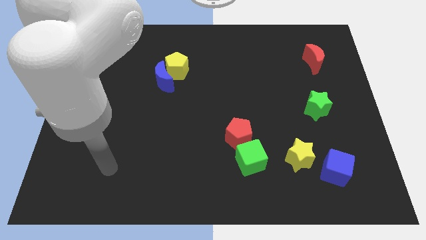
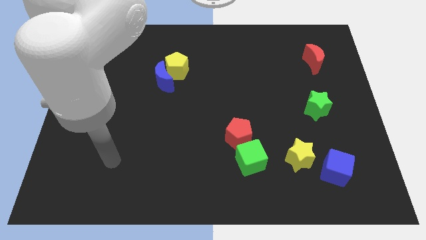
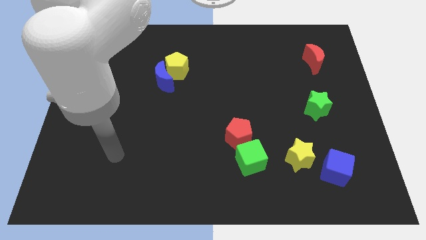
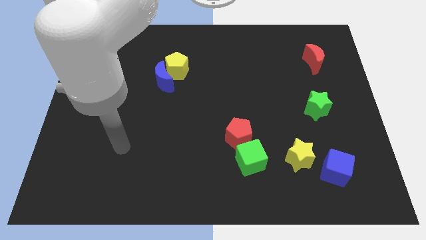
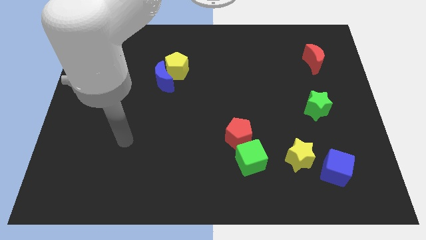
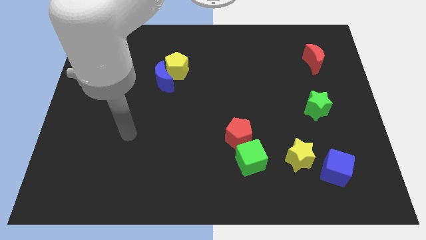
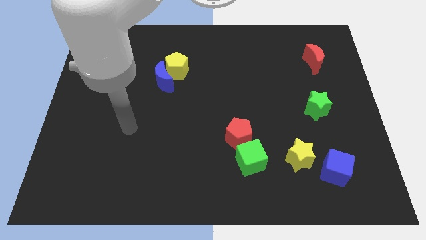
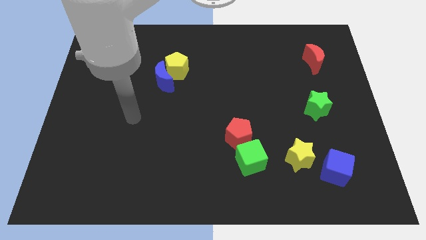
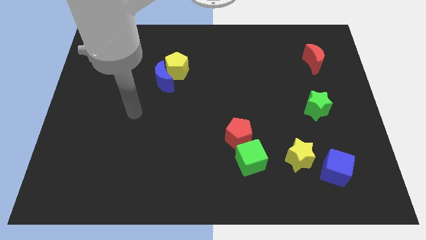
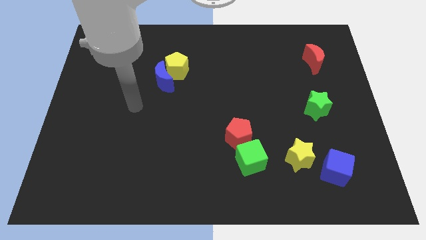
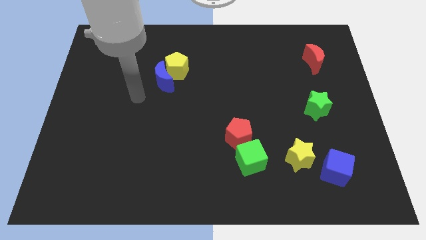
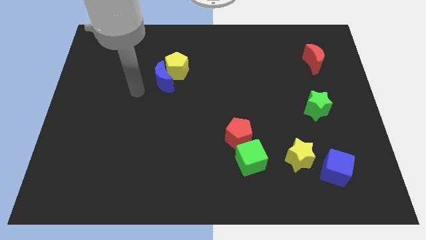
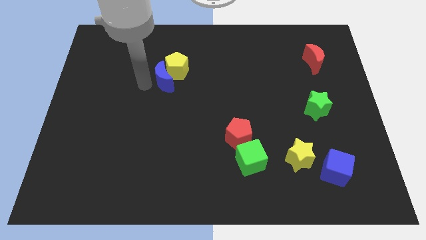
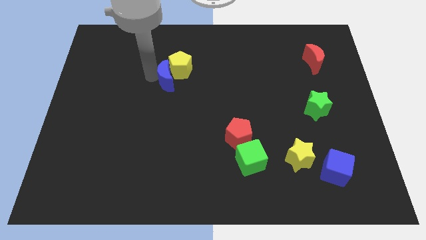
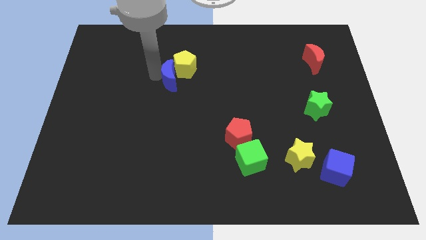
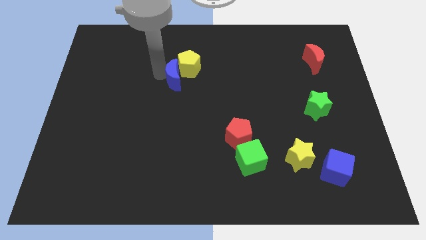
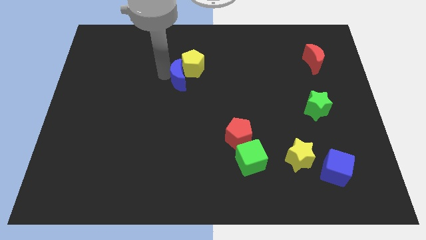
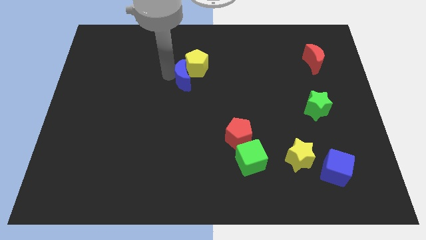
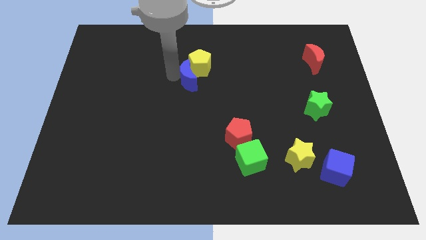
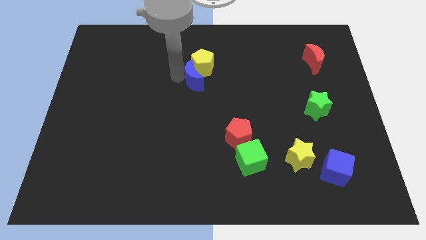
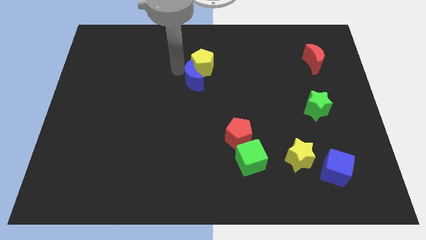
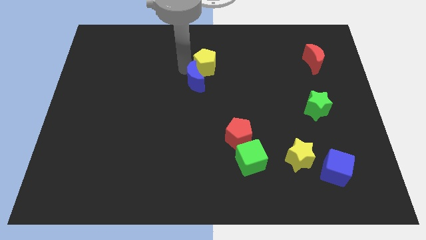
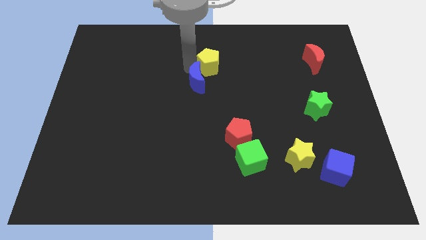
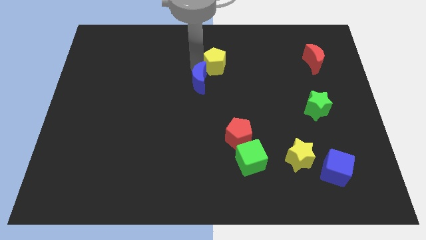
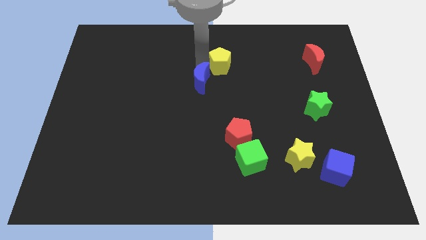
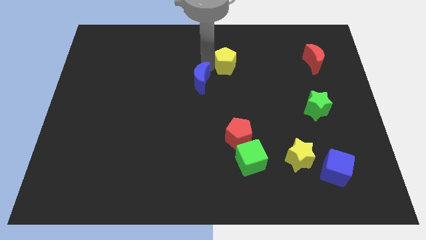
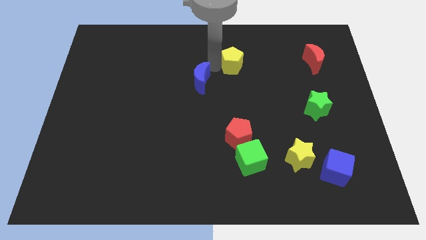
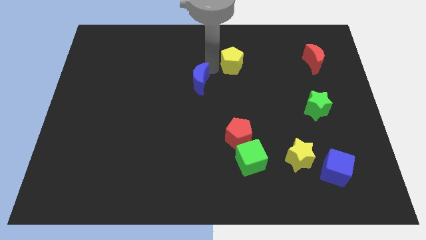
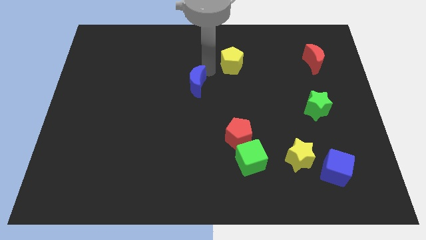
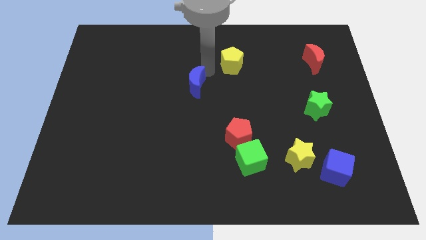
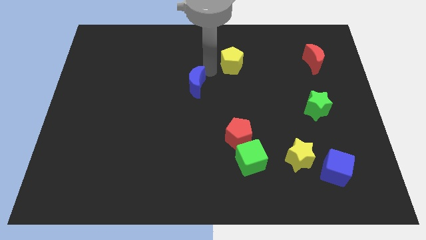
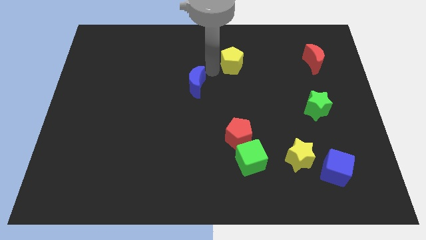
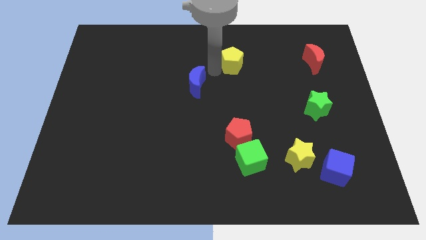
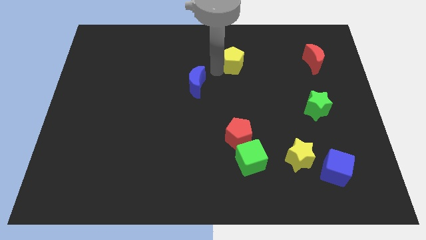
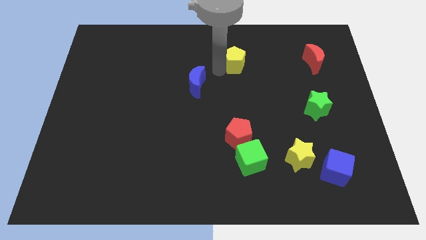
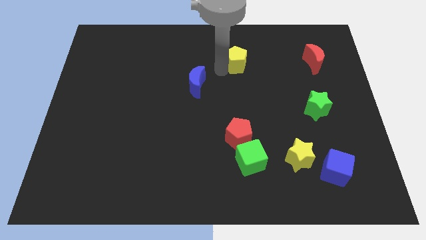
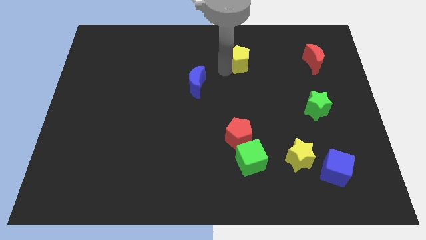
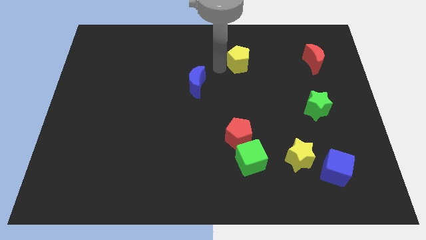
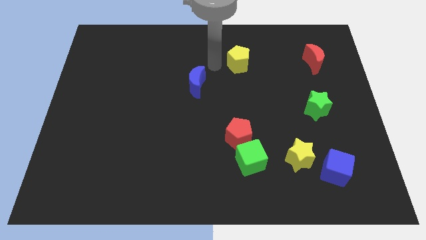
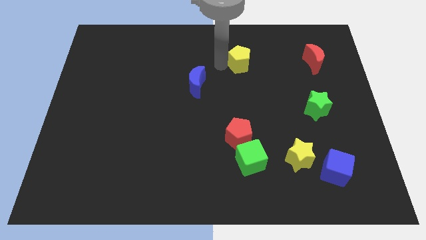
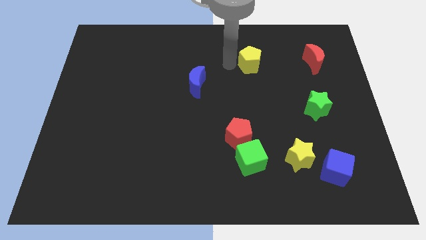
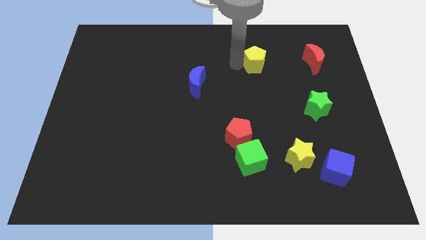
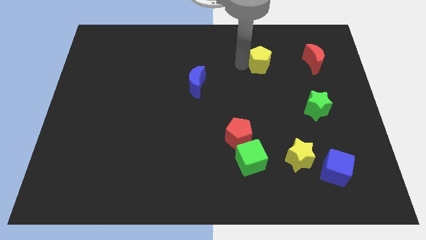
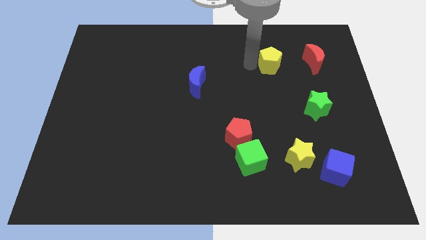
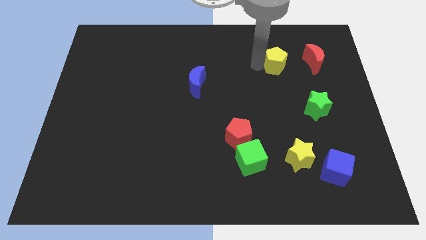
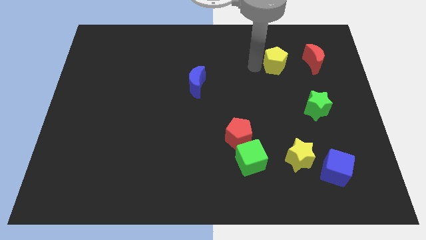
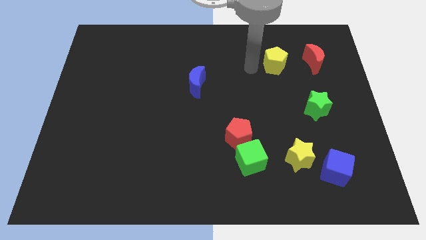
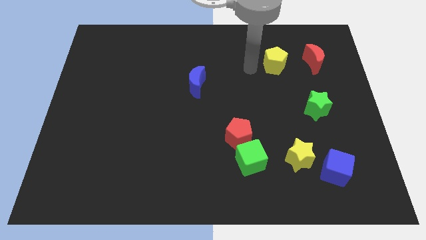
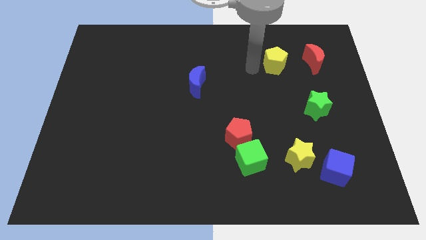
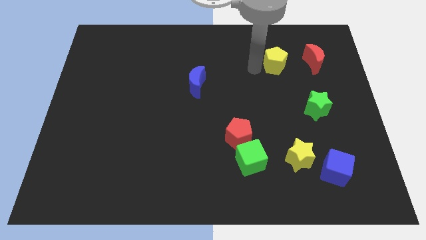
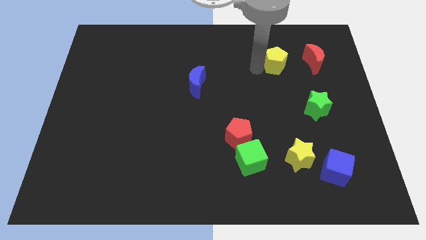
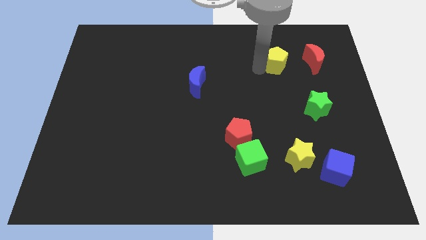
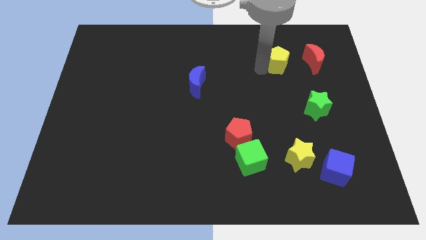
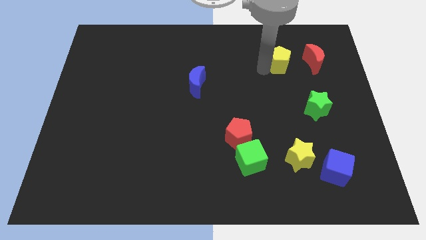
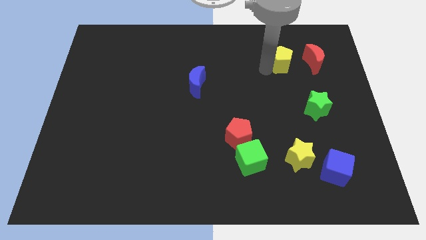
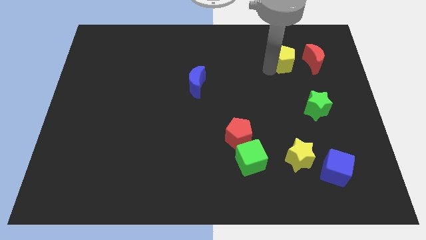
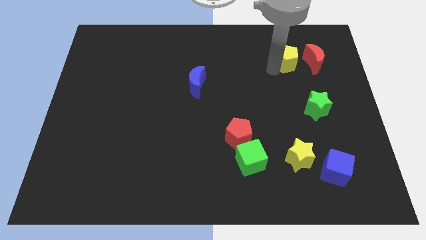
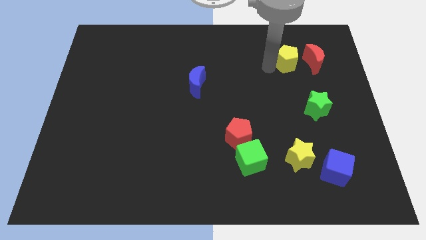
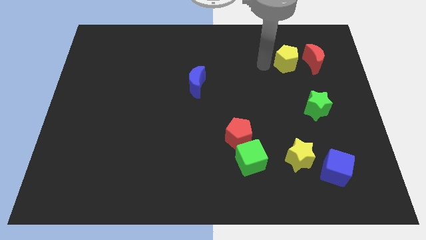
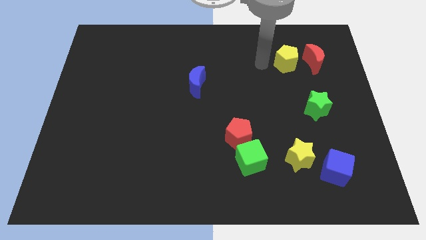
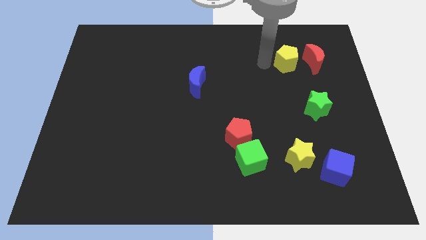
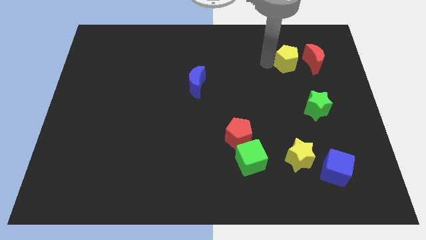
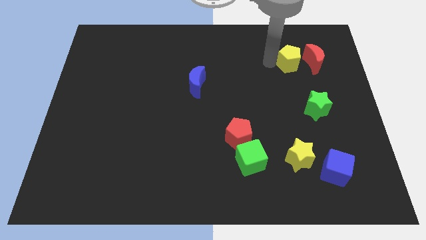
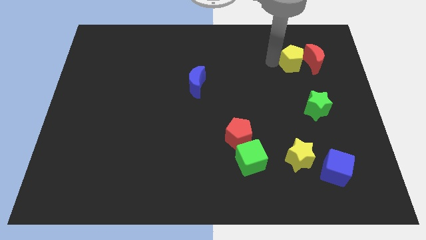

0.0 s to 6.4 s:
put the yellow pentagon to the red moon

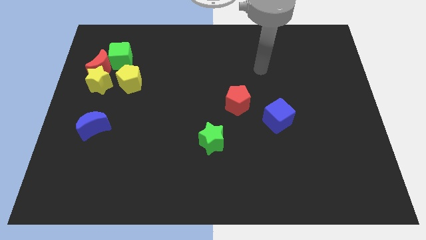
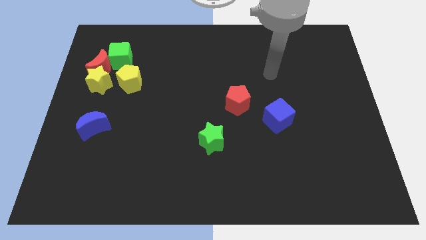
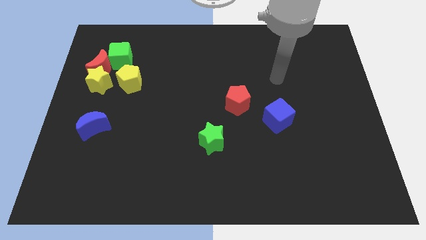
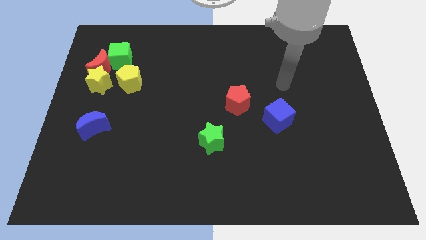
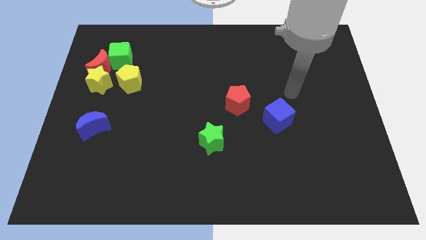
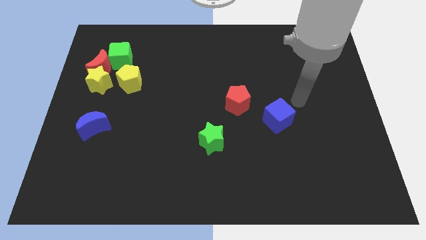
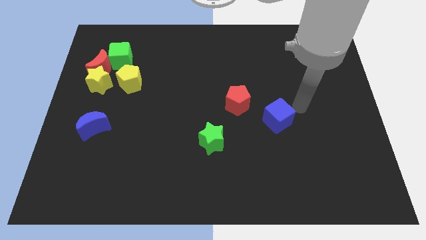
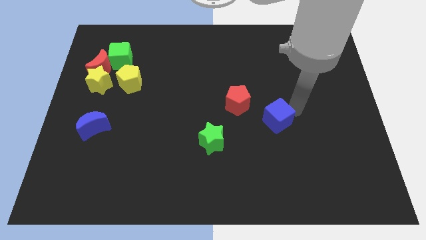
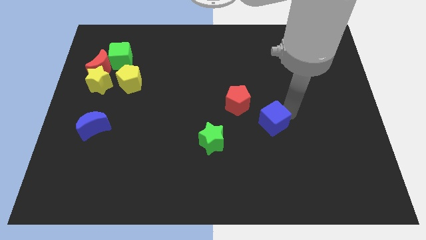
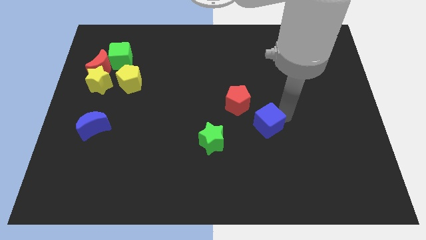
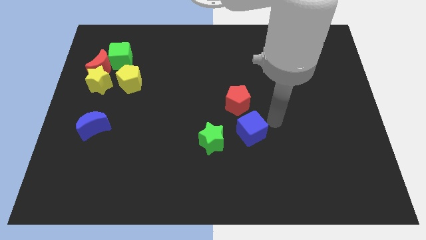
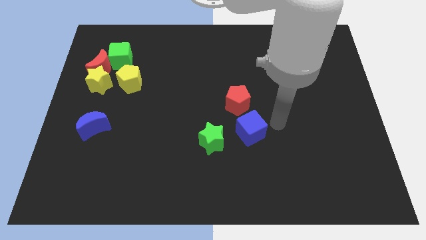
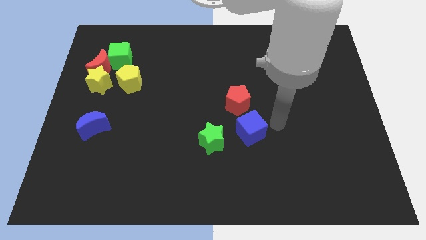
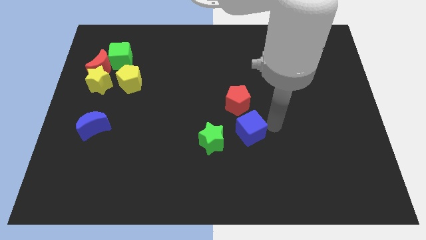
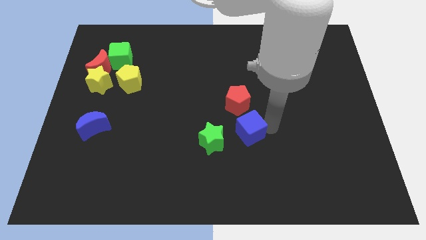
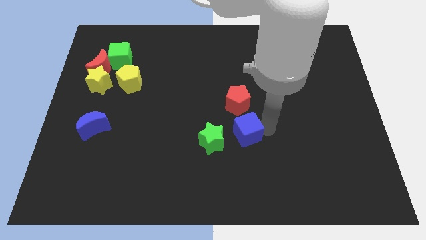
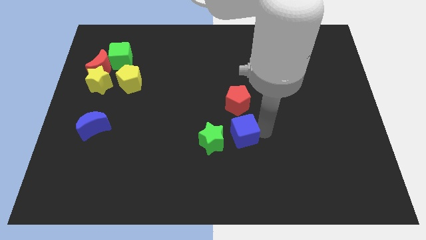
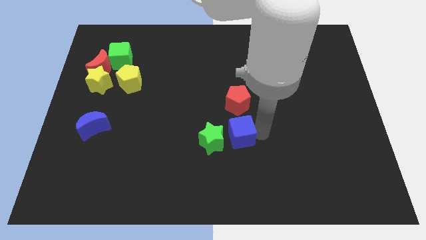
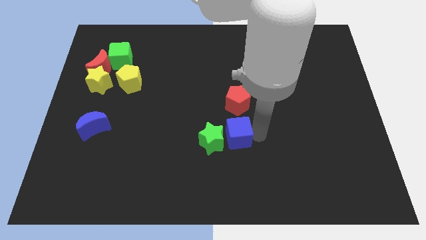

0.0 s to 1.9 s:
slide the blue cube towards the green star
